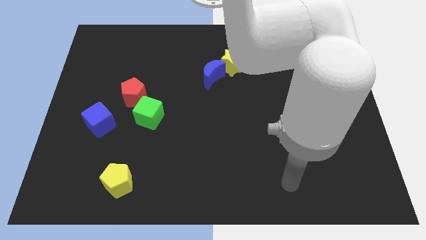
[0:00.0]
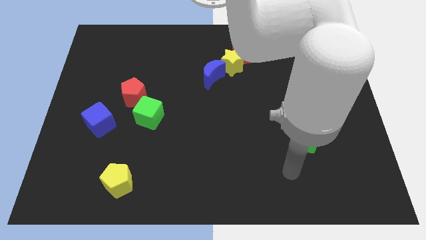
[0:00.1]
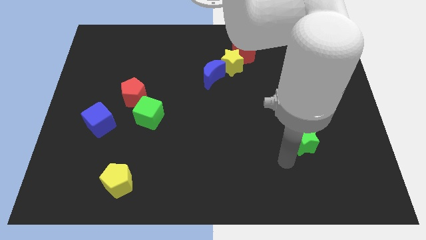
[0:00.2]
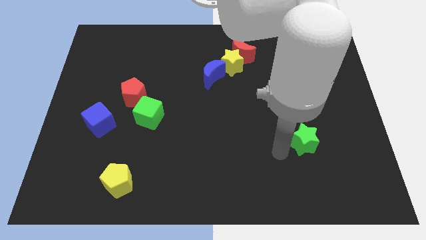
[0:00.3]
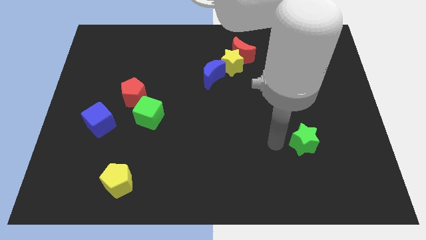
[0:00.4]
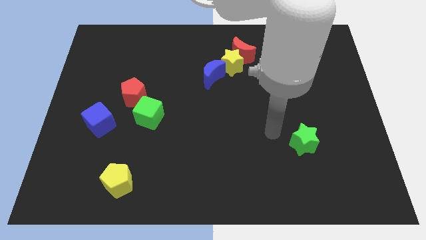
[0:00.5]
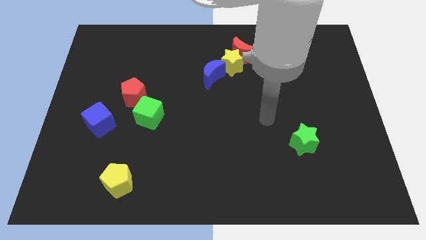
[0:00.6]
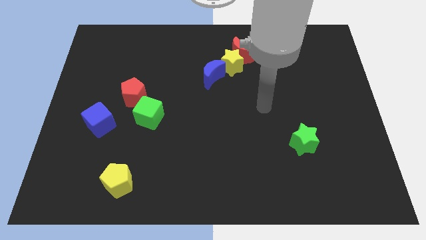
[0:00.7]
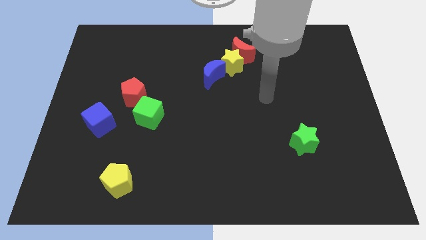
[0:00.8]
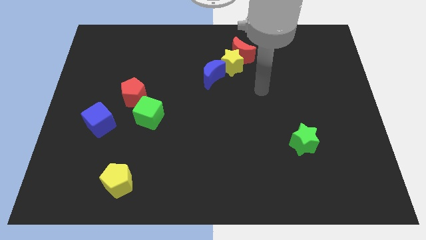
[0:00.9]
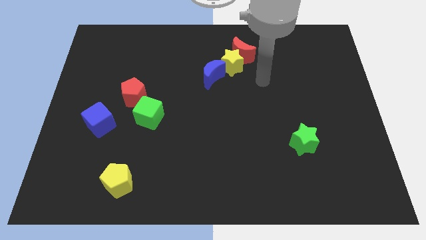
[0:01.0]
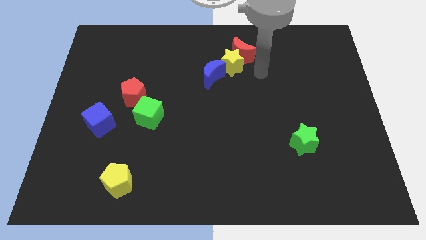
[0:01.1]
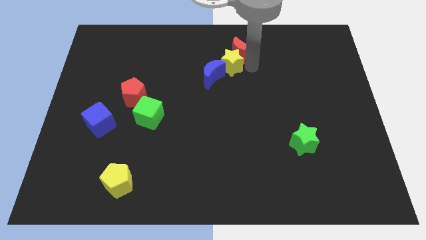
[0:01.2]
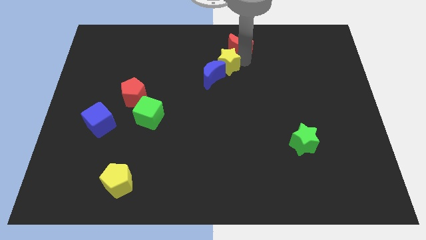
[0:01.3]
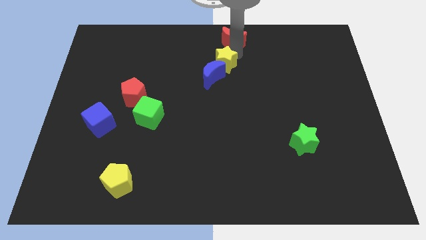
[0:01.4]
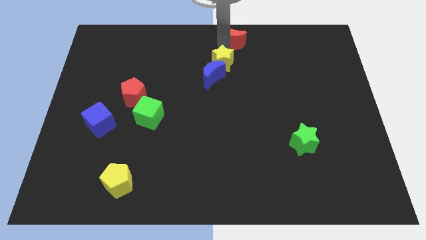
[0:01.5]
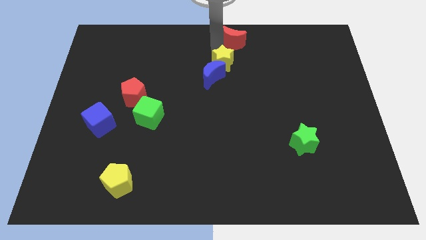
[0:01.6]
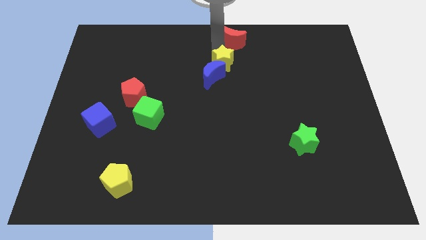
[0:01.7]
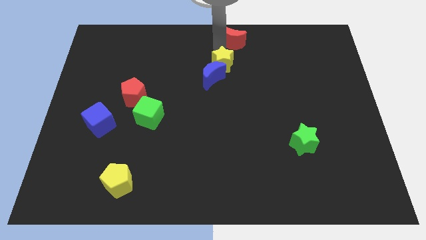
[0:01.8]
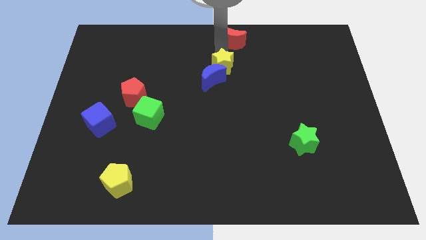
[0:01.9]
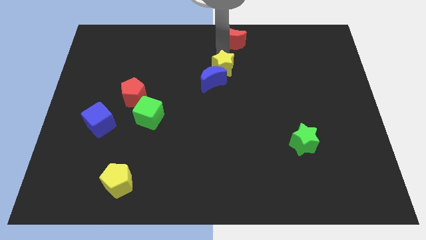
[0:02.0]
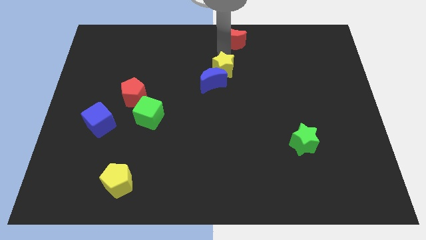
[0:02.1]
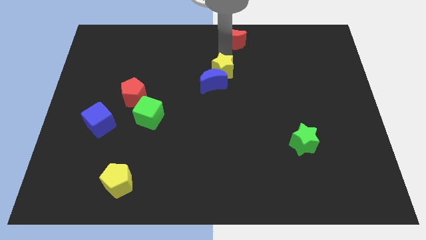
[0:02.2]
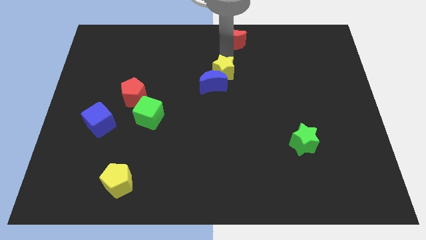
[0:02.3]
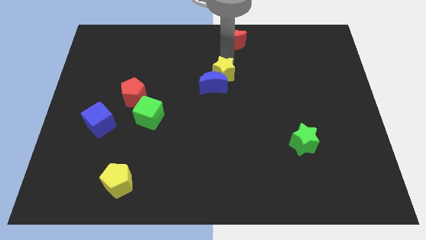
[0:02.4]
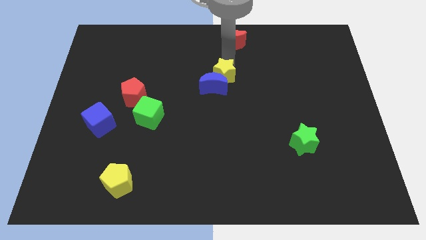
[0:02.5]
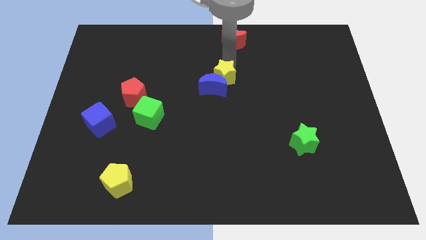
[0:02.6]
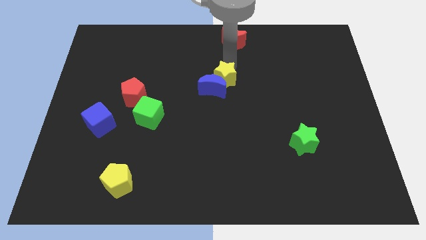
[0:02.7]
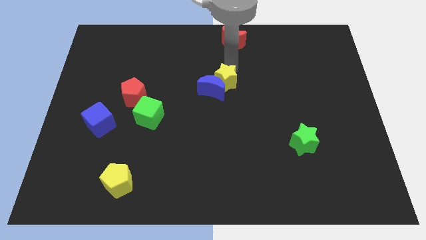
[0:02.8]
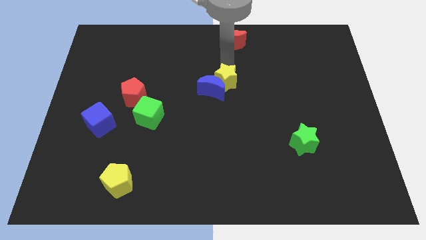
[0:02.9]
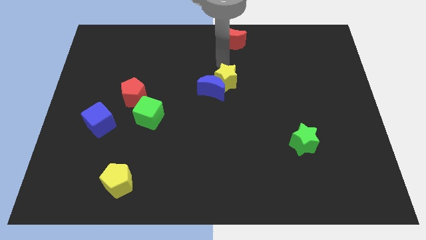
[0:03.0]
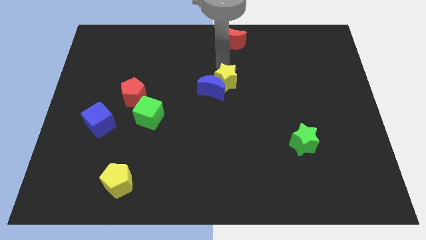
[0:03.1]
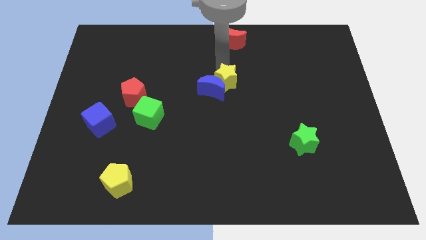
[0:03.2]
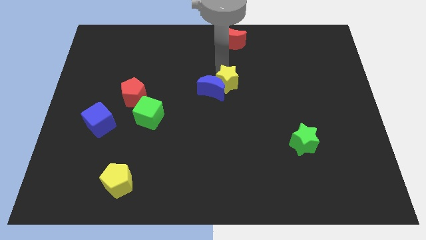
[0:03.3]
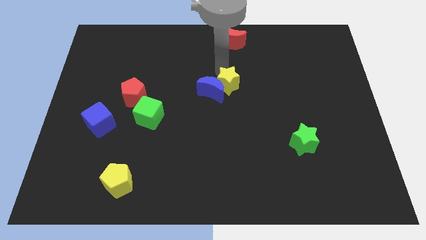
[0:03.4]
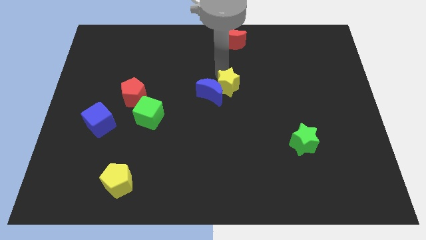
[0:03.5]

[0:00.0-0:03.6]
slightly move the yellow star downwards

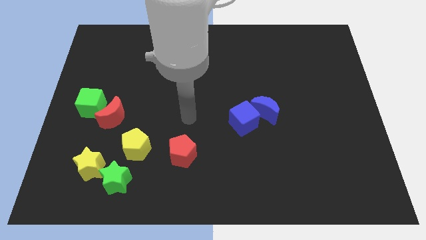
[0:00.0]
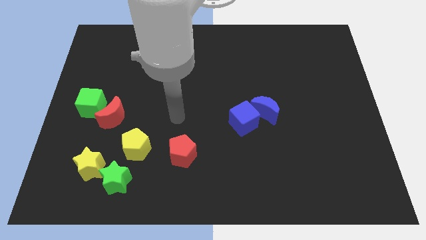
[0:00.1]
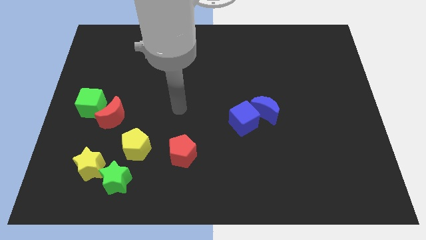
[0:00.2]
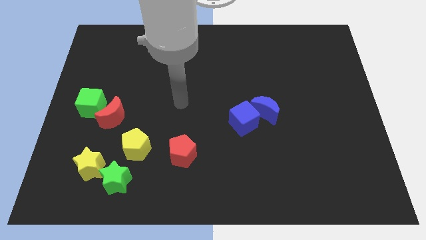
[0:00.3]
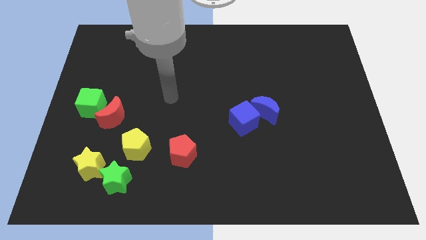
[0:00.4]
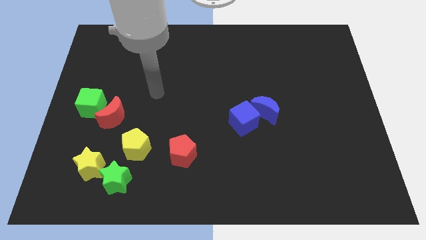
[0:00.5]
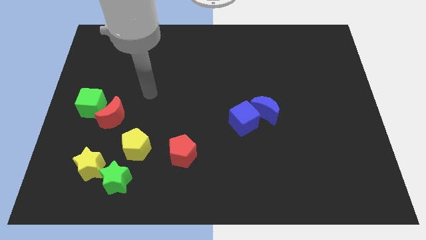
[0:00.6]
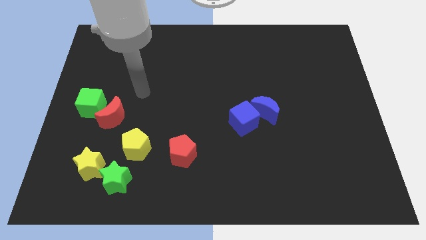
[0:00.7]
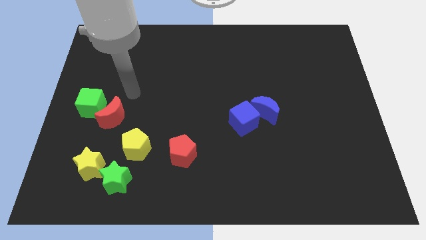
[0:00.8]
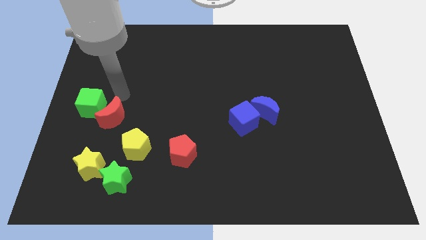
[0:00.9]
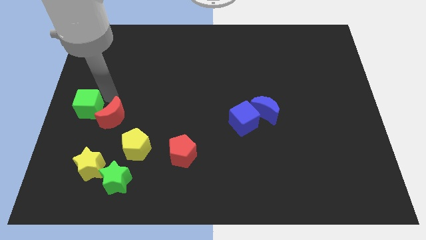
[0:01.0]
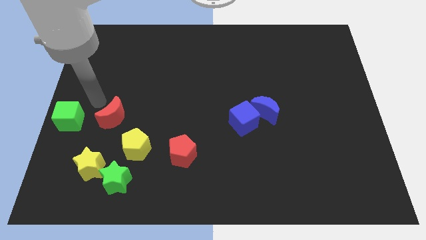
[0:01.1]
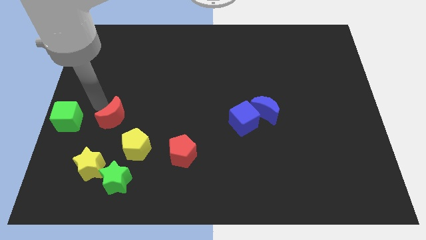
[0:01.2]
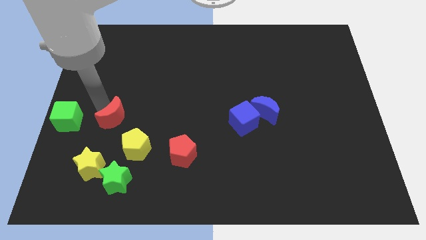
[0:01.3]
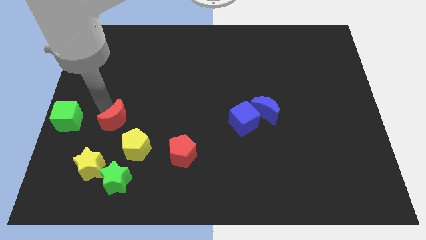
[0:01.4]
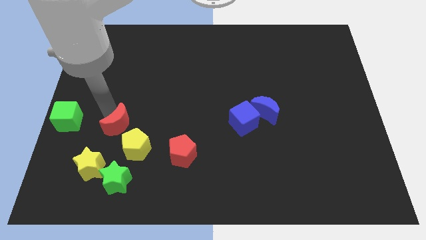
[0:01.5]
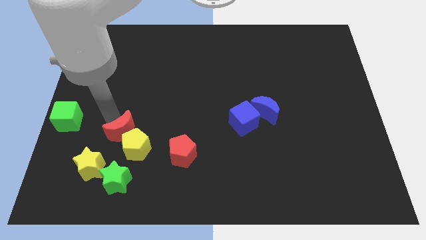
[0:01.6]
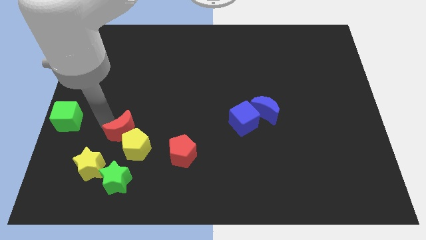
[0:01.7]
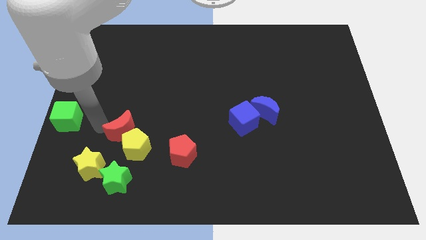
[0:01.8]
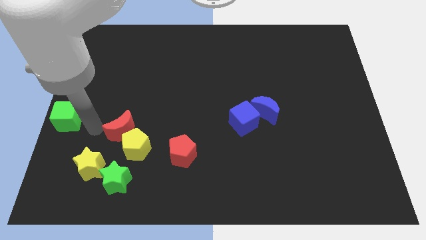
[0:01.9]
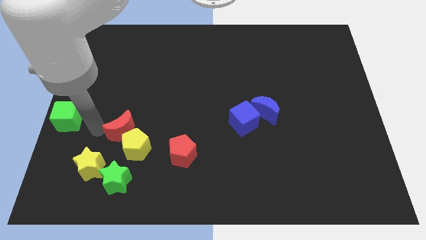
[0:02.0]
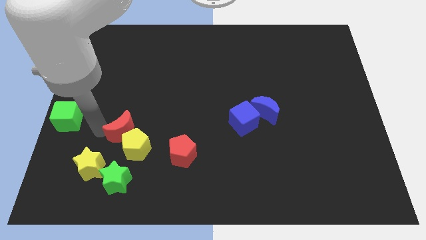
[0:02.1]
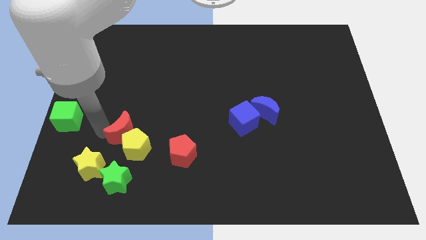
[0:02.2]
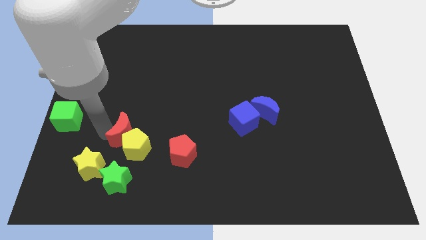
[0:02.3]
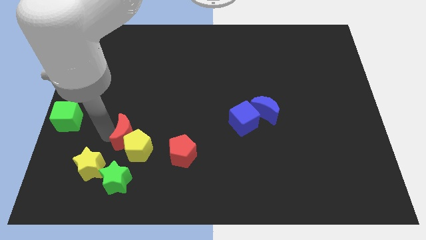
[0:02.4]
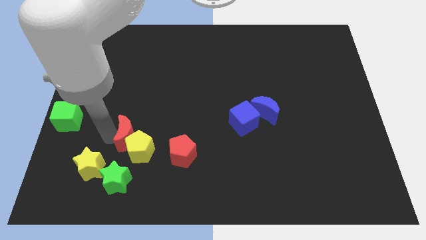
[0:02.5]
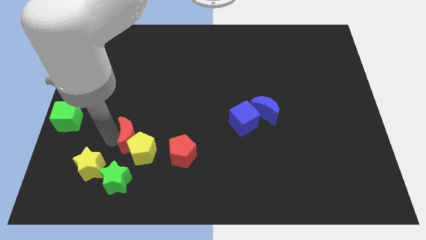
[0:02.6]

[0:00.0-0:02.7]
move the red moon slightly downwards and right

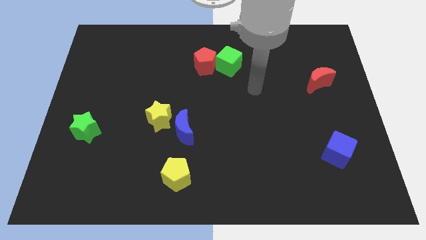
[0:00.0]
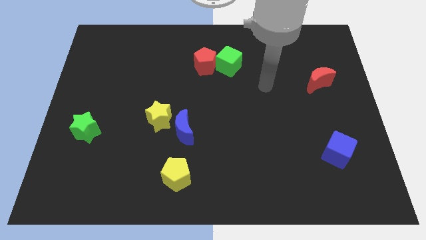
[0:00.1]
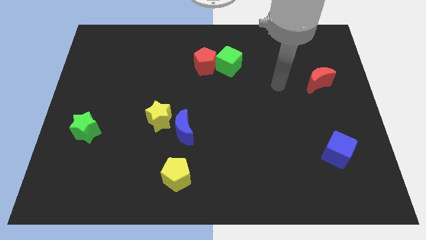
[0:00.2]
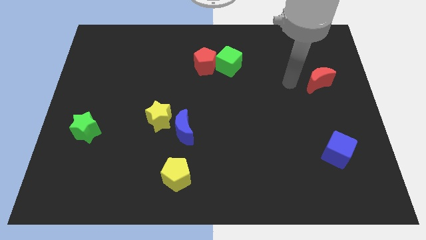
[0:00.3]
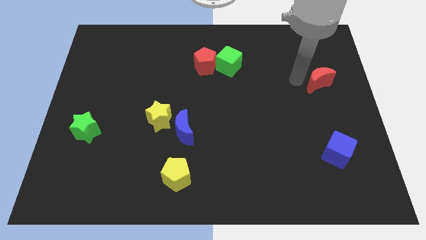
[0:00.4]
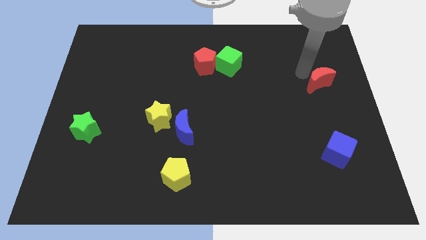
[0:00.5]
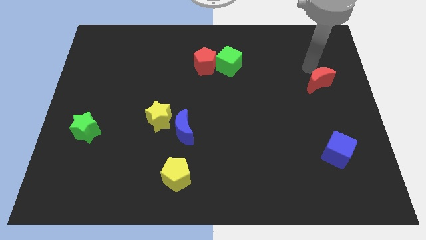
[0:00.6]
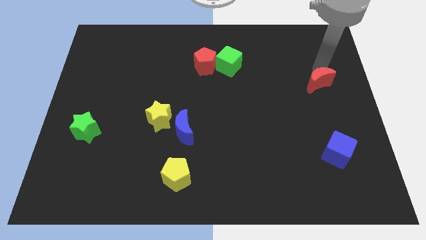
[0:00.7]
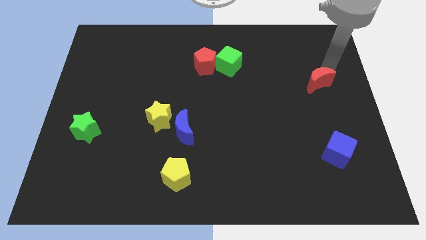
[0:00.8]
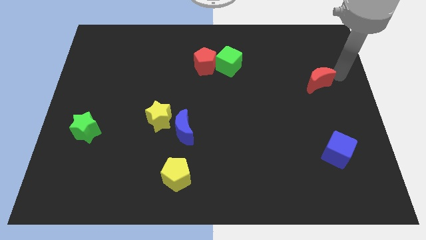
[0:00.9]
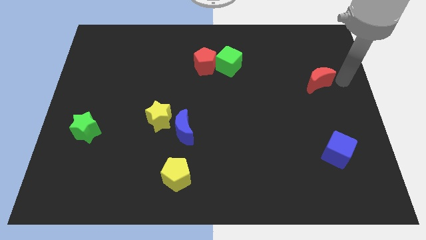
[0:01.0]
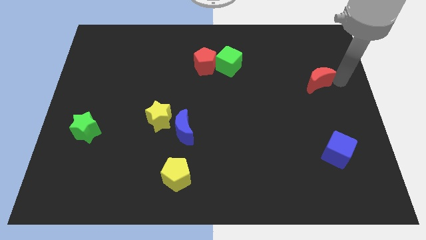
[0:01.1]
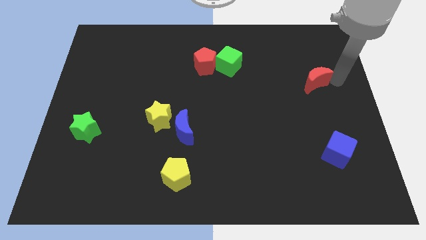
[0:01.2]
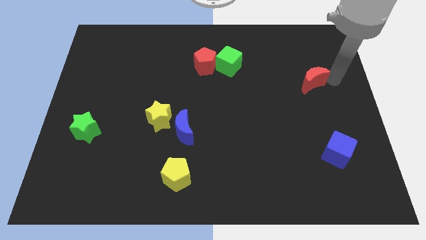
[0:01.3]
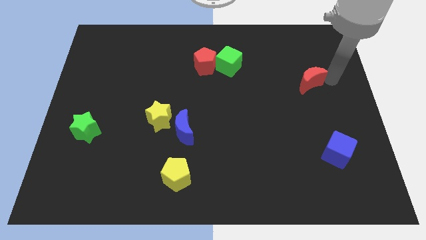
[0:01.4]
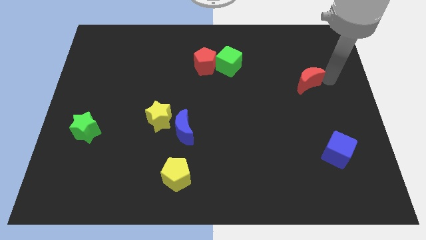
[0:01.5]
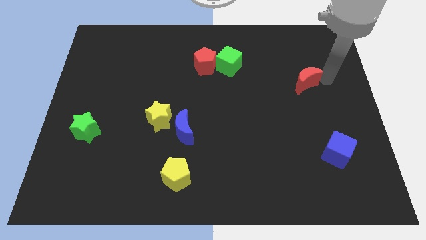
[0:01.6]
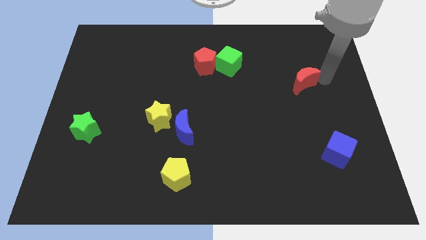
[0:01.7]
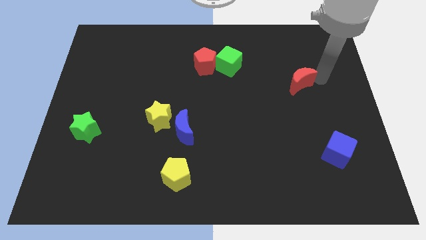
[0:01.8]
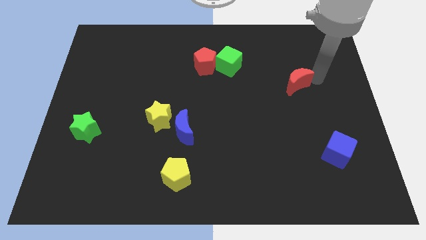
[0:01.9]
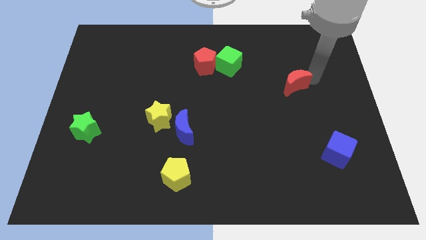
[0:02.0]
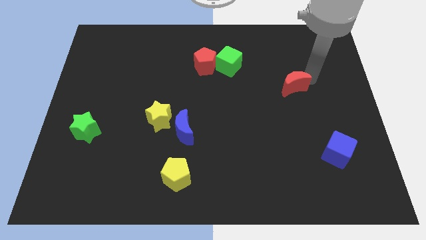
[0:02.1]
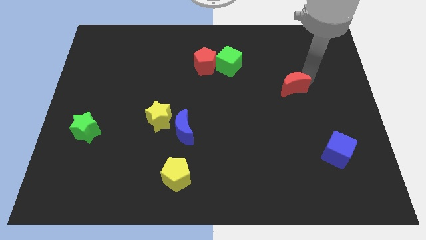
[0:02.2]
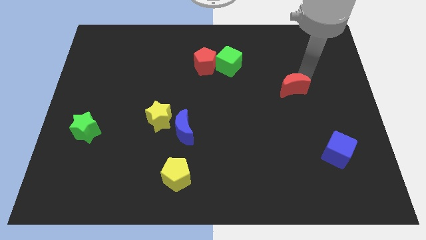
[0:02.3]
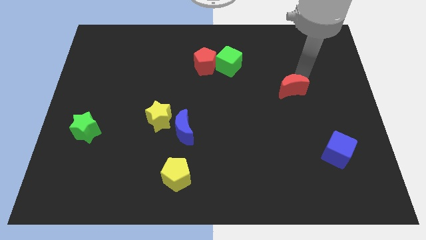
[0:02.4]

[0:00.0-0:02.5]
move the red moon slightly to the left
